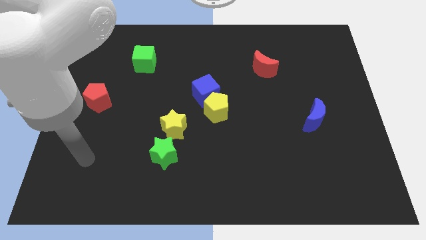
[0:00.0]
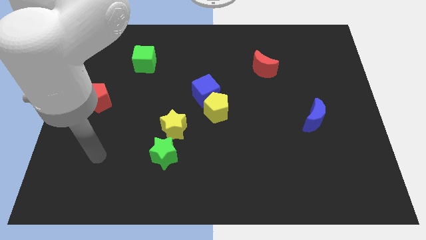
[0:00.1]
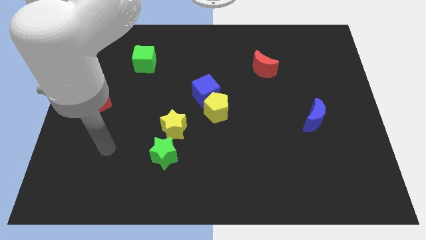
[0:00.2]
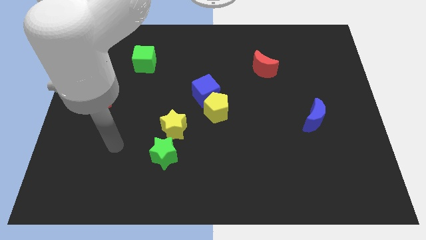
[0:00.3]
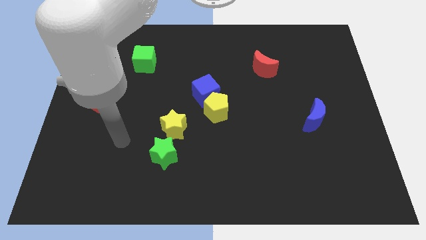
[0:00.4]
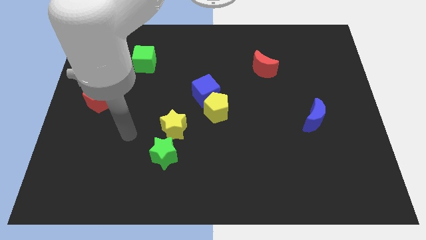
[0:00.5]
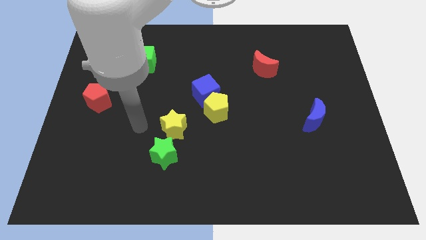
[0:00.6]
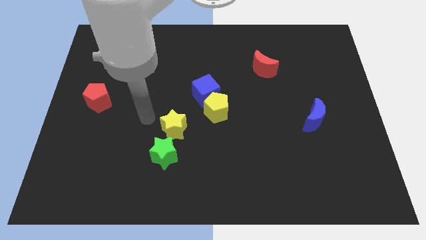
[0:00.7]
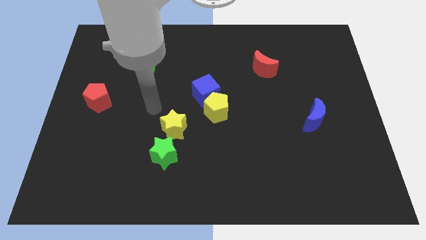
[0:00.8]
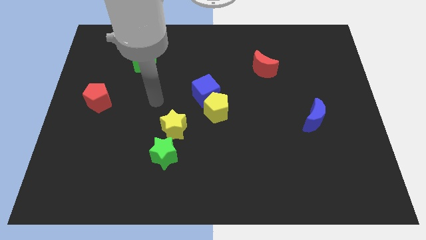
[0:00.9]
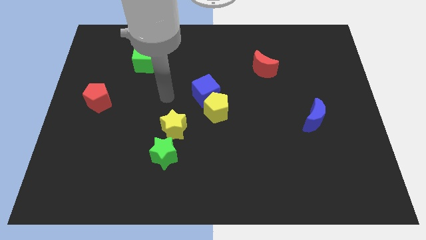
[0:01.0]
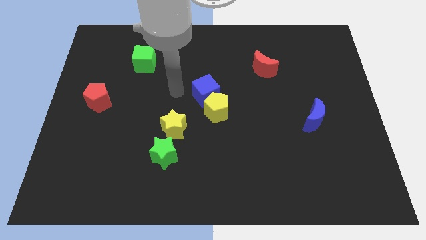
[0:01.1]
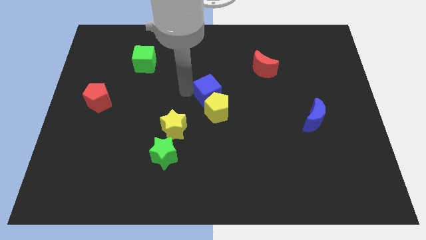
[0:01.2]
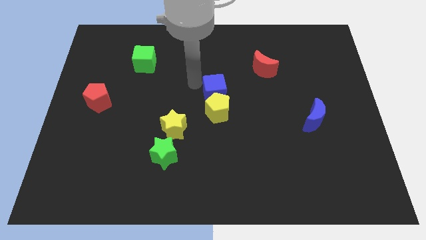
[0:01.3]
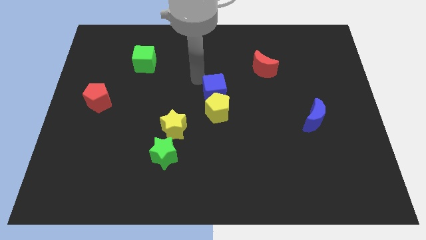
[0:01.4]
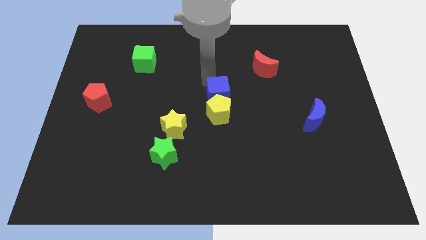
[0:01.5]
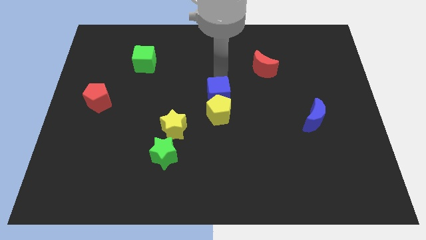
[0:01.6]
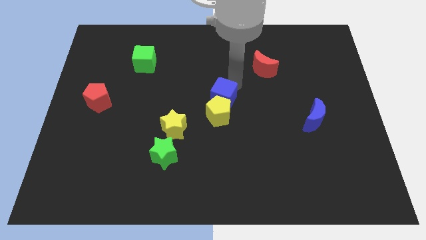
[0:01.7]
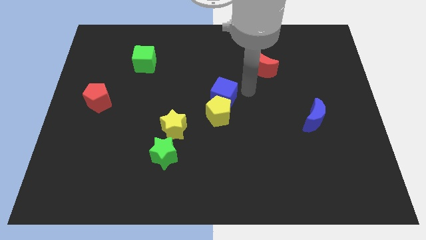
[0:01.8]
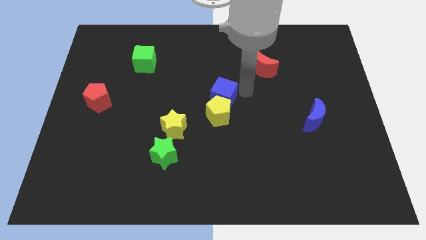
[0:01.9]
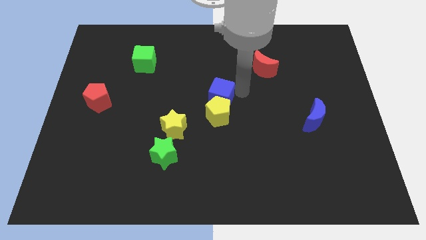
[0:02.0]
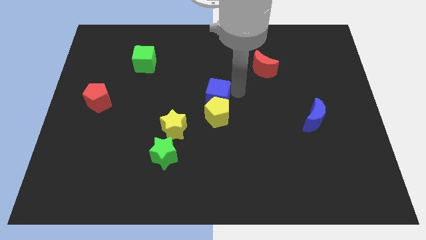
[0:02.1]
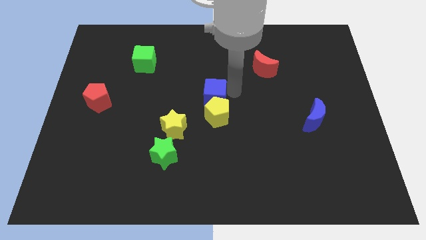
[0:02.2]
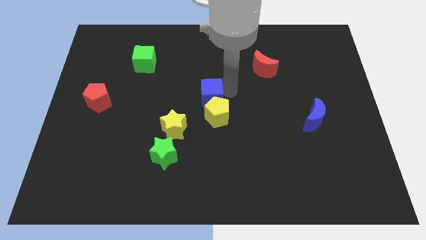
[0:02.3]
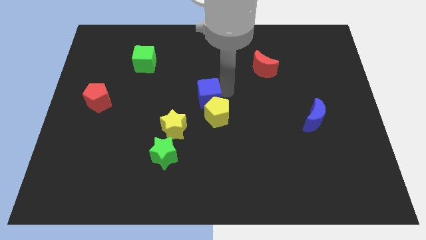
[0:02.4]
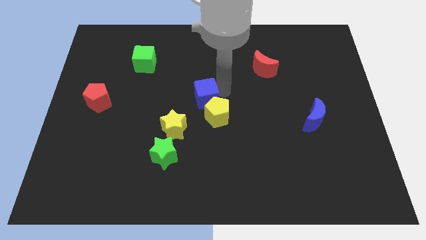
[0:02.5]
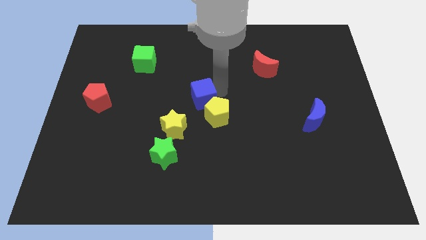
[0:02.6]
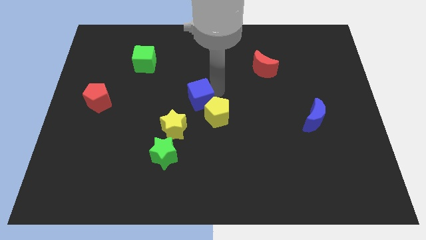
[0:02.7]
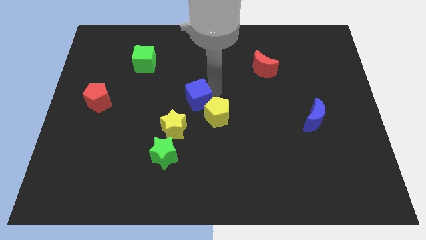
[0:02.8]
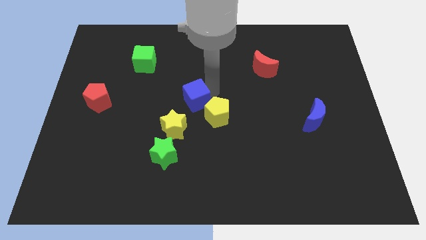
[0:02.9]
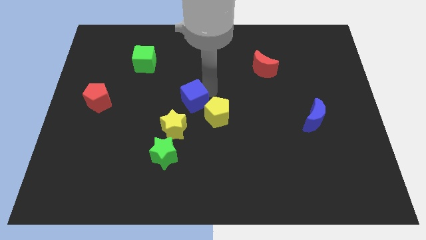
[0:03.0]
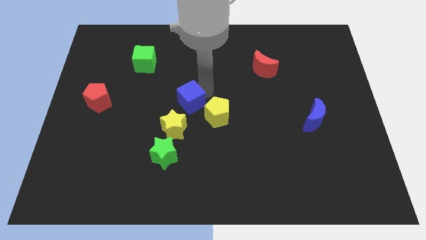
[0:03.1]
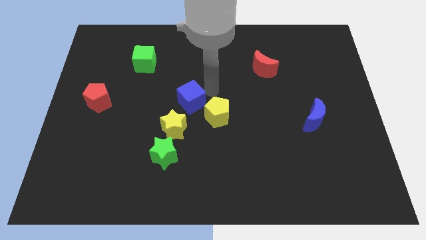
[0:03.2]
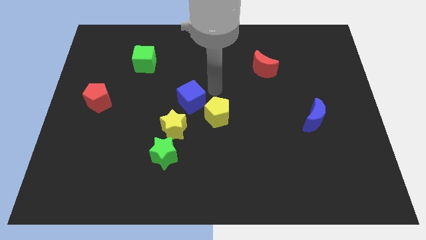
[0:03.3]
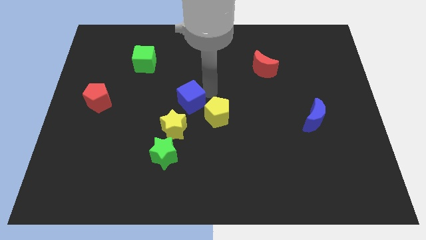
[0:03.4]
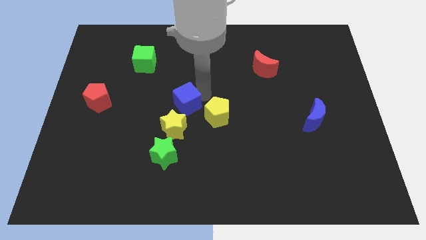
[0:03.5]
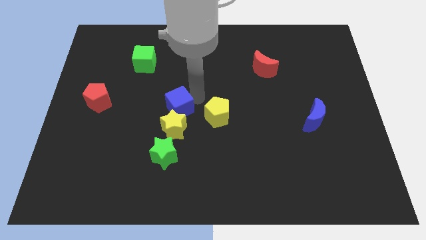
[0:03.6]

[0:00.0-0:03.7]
slightly push the blue cube downwards and to the left

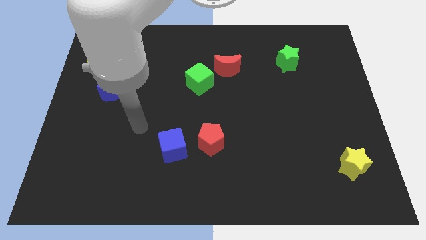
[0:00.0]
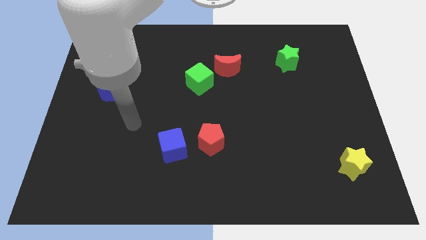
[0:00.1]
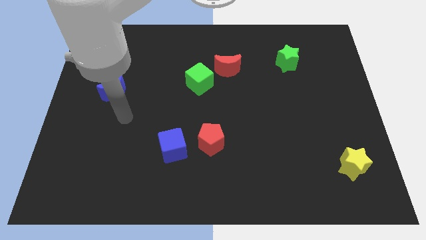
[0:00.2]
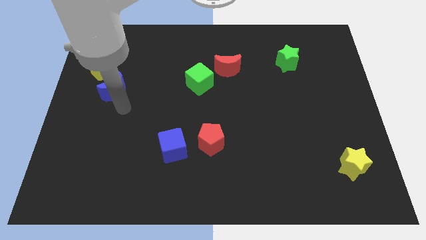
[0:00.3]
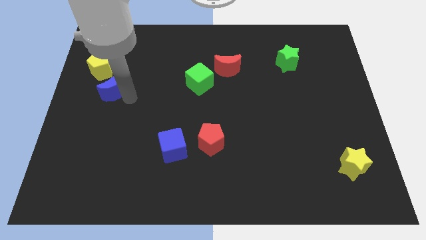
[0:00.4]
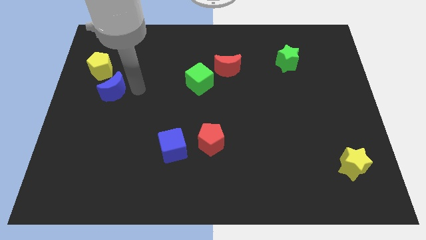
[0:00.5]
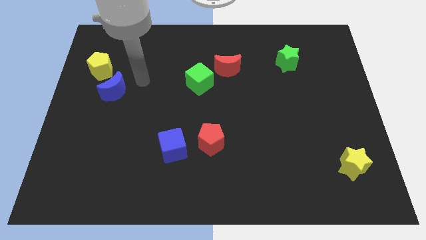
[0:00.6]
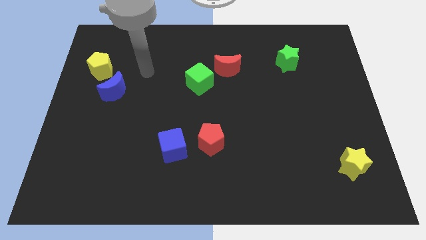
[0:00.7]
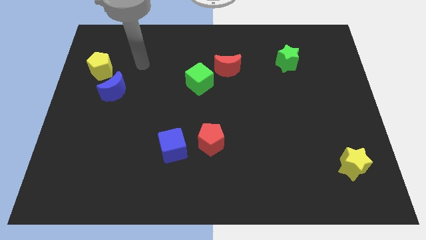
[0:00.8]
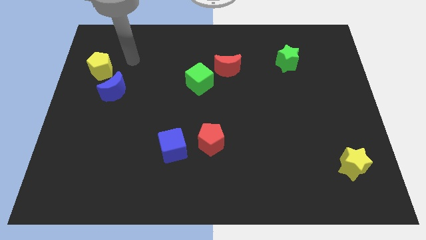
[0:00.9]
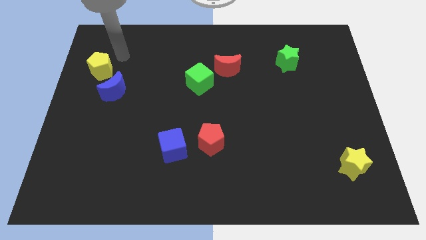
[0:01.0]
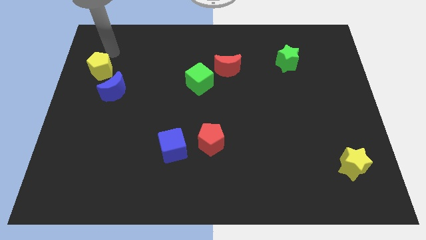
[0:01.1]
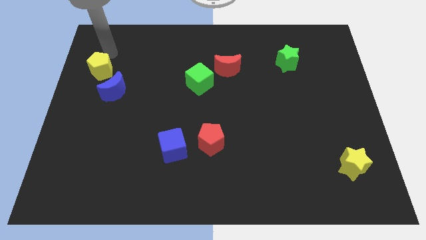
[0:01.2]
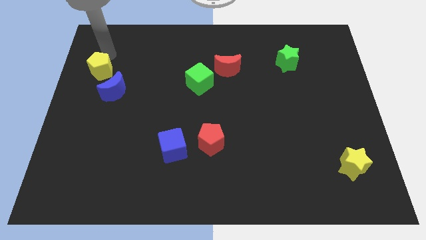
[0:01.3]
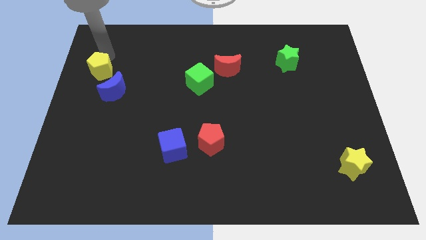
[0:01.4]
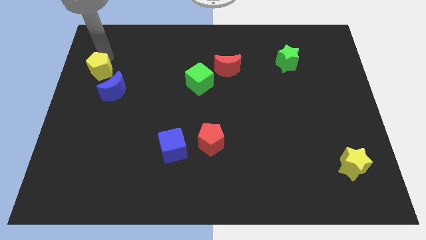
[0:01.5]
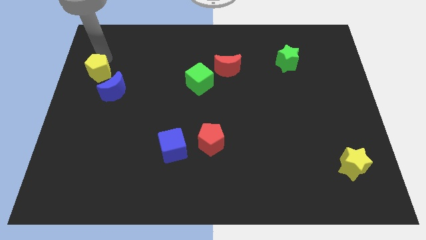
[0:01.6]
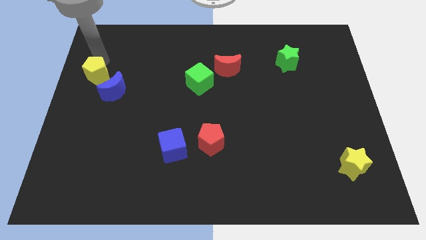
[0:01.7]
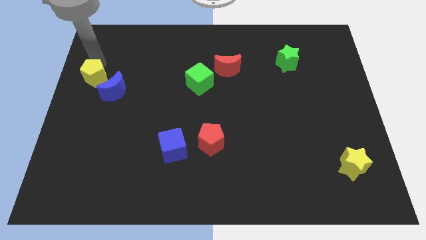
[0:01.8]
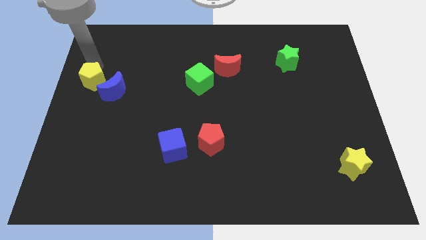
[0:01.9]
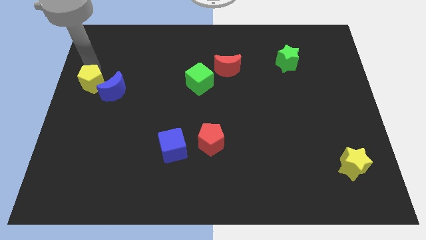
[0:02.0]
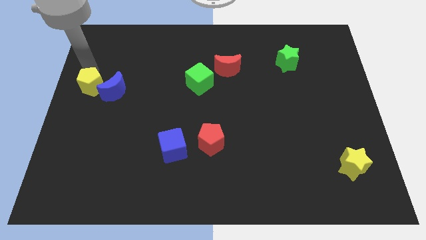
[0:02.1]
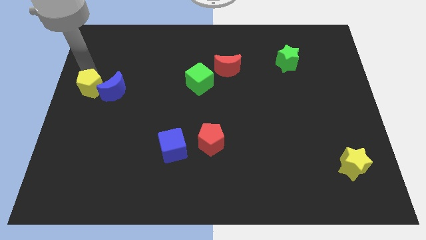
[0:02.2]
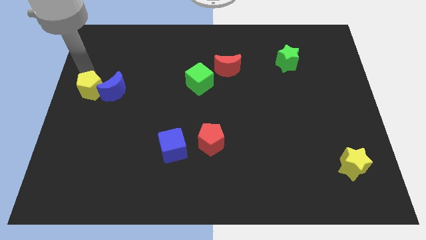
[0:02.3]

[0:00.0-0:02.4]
move the yellow pentagon downwards a little bit

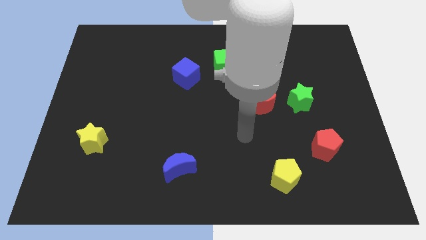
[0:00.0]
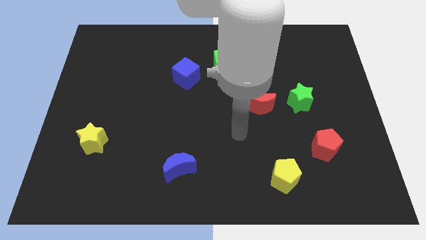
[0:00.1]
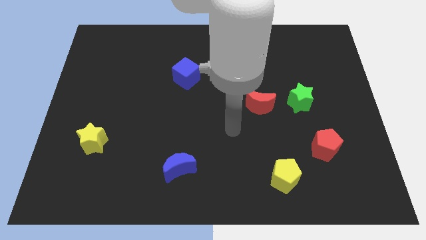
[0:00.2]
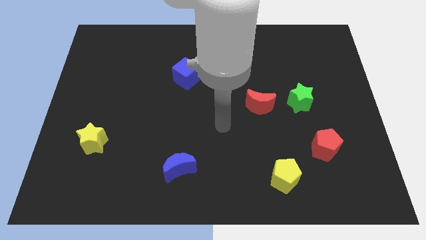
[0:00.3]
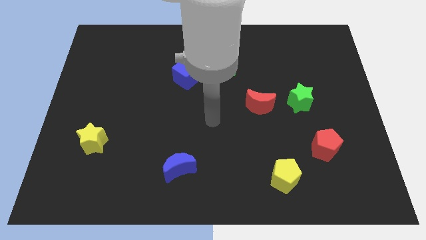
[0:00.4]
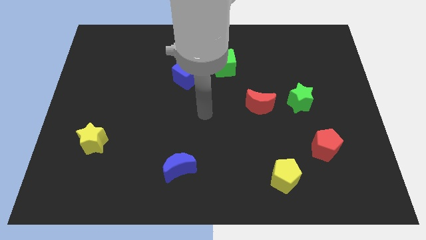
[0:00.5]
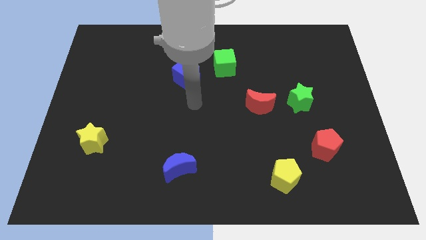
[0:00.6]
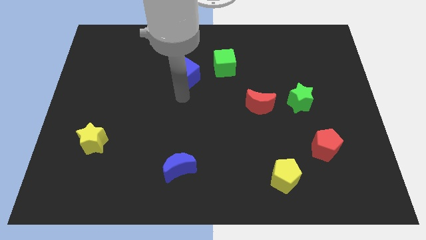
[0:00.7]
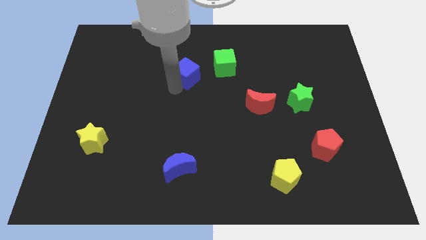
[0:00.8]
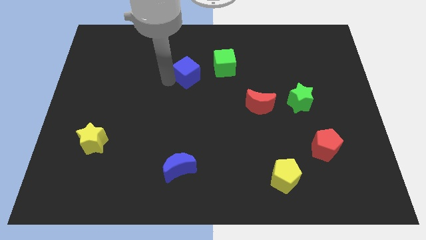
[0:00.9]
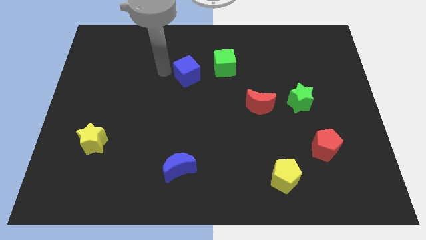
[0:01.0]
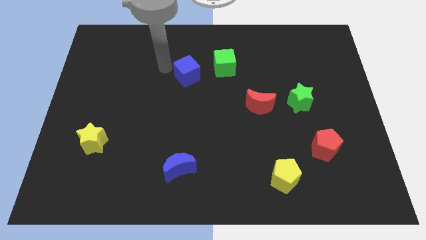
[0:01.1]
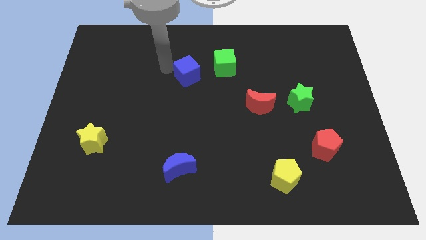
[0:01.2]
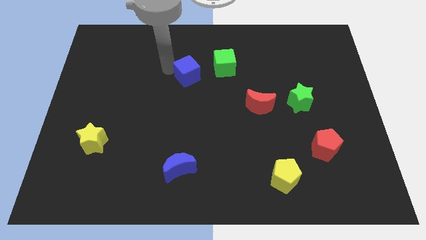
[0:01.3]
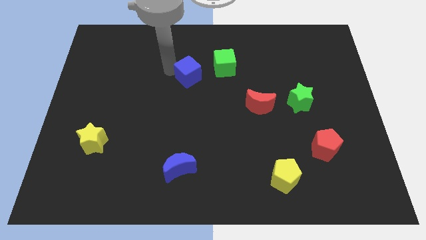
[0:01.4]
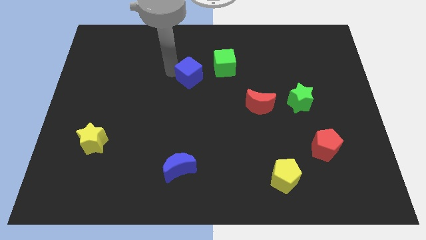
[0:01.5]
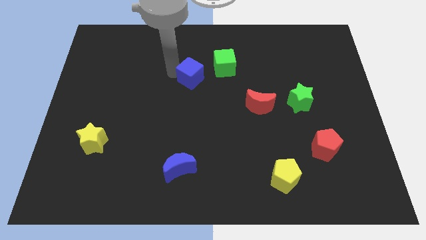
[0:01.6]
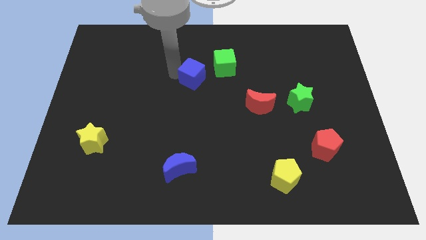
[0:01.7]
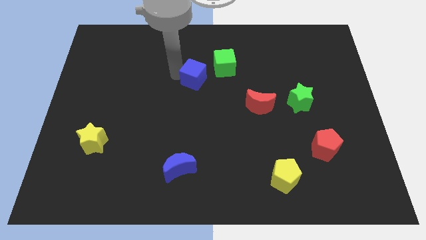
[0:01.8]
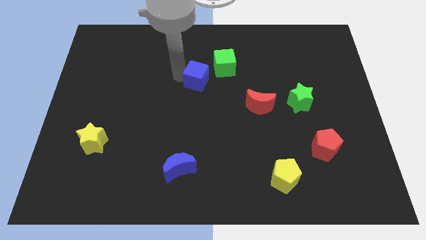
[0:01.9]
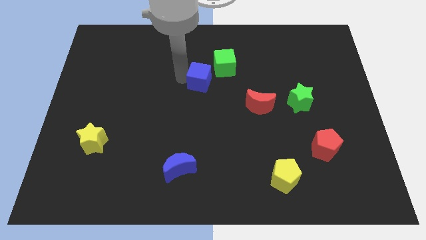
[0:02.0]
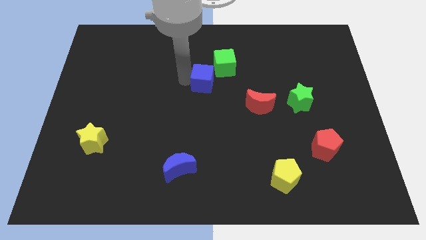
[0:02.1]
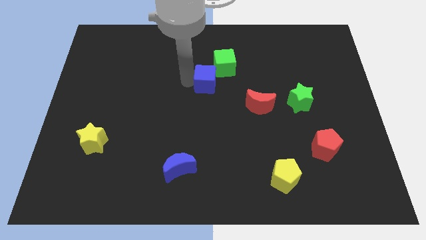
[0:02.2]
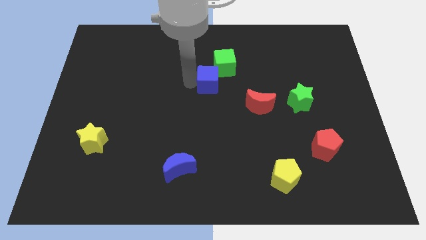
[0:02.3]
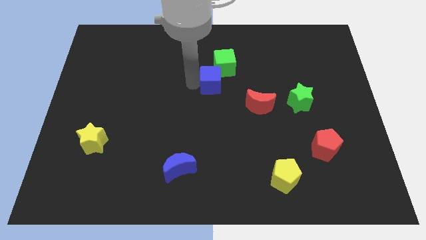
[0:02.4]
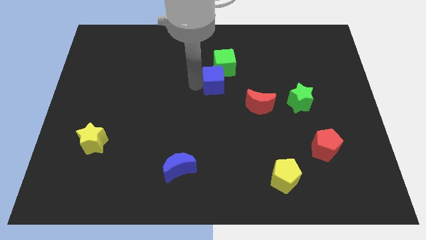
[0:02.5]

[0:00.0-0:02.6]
push the blue cube to the right somewhat
